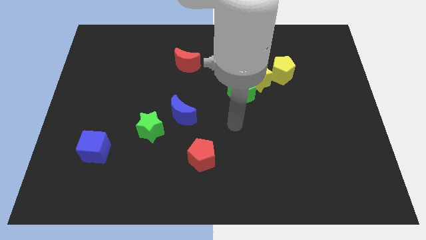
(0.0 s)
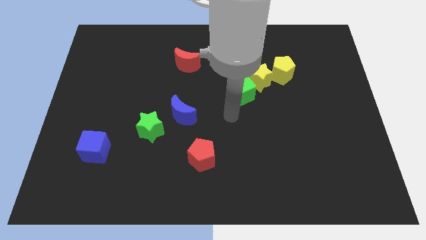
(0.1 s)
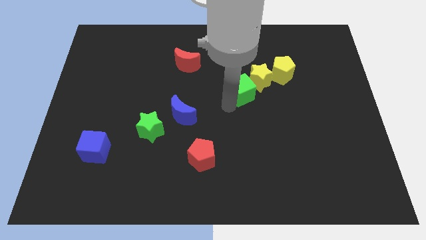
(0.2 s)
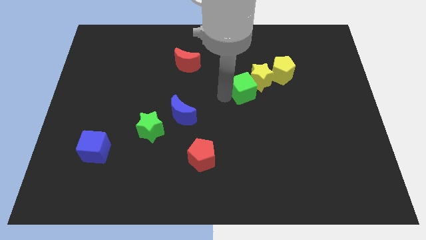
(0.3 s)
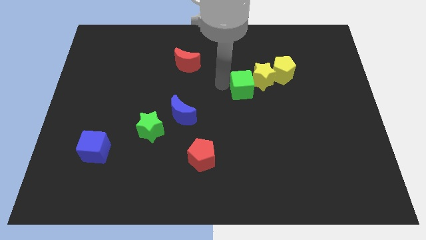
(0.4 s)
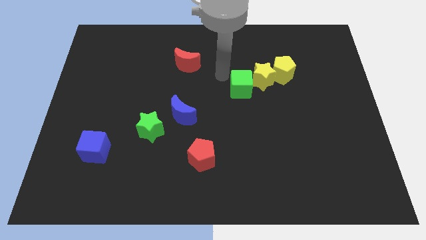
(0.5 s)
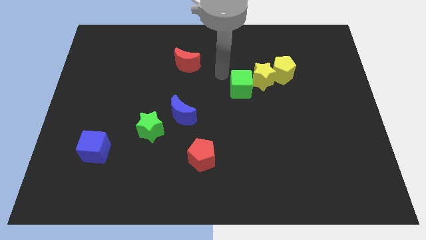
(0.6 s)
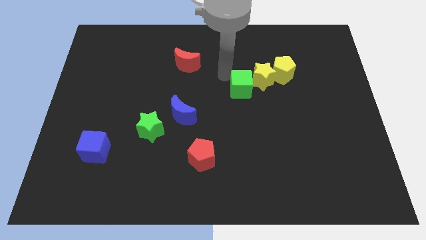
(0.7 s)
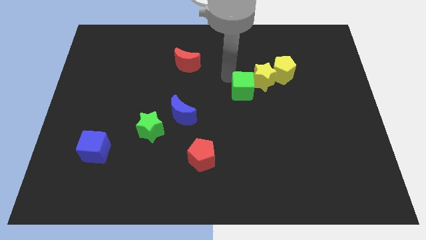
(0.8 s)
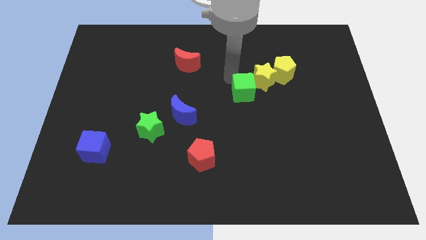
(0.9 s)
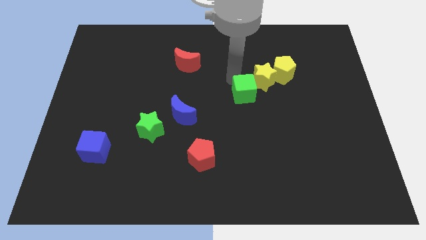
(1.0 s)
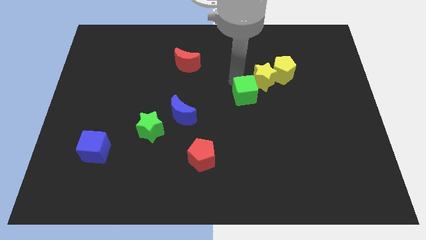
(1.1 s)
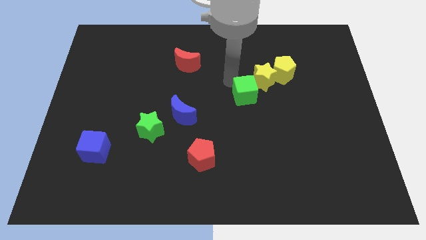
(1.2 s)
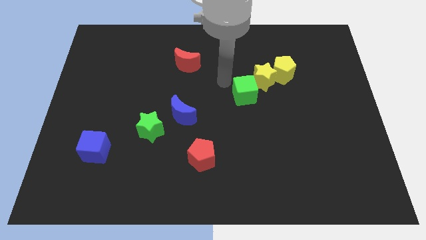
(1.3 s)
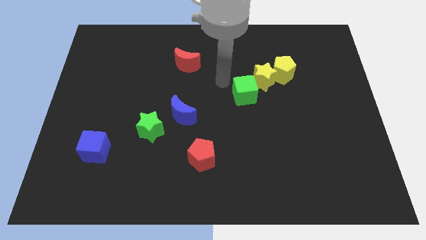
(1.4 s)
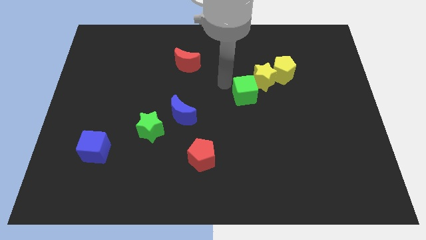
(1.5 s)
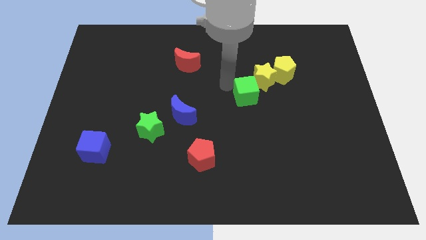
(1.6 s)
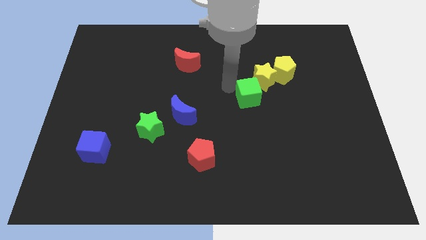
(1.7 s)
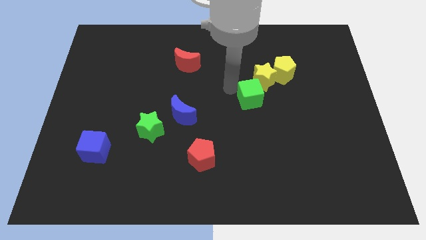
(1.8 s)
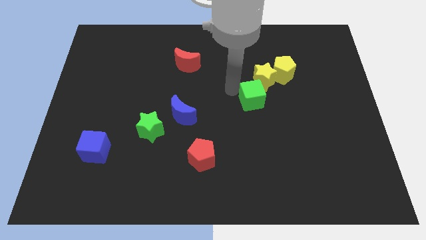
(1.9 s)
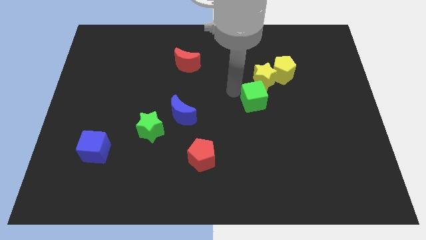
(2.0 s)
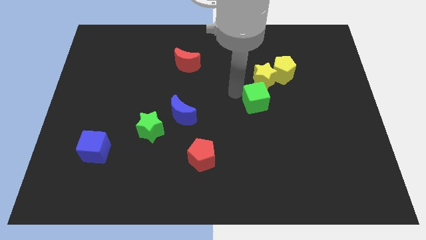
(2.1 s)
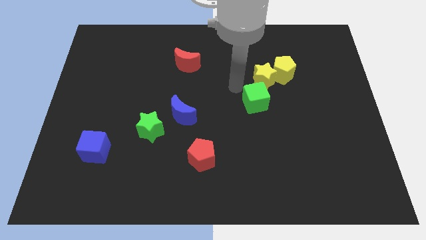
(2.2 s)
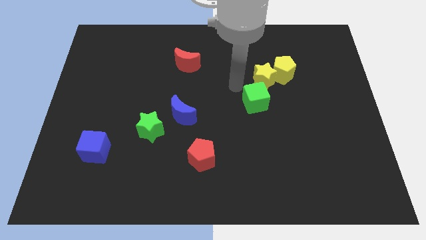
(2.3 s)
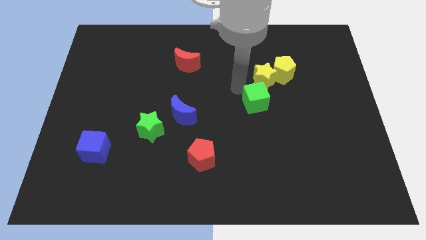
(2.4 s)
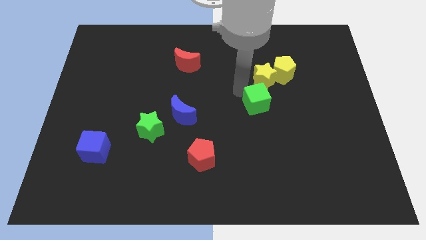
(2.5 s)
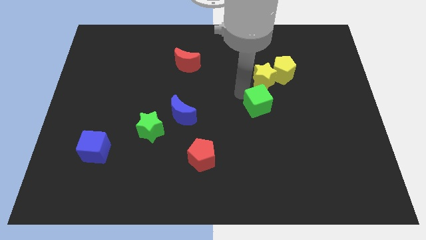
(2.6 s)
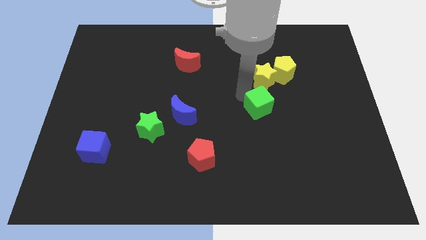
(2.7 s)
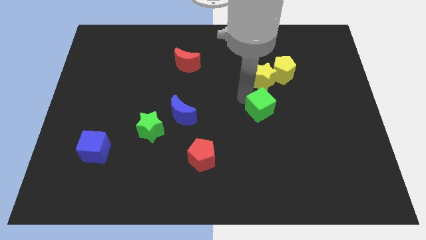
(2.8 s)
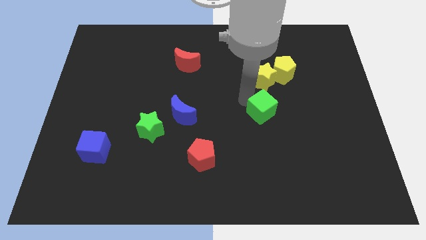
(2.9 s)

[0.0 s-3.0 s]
slide the green cube down and then right a little bit

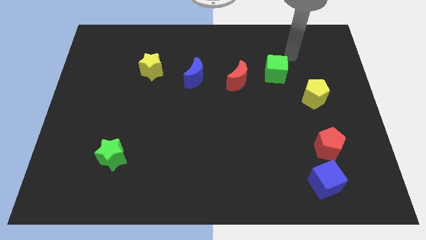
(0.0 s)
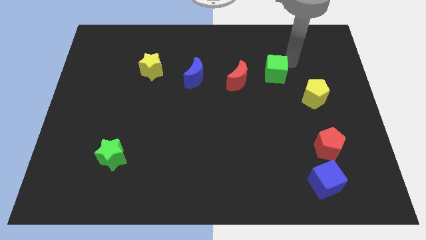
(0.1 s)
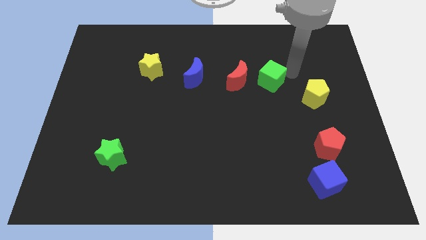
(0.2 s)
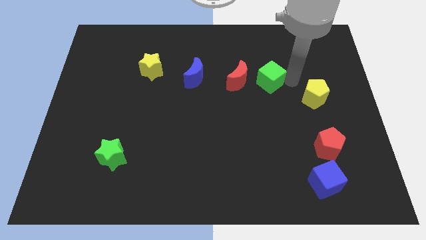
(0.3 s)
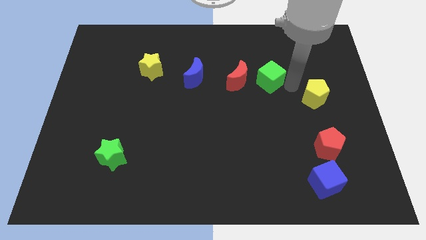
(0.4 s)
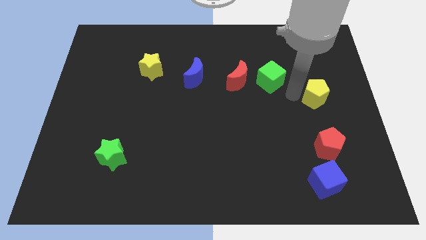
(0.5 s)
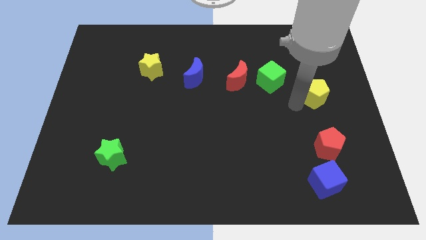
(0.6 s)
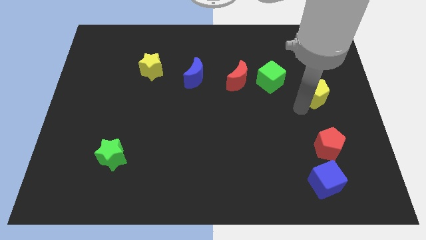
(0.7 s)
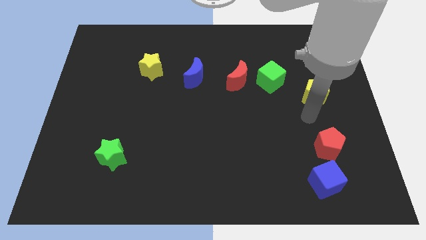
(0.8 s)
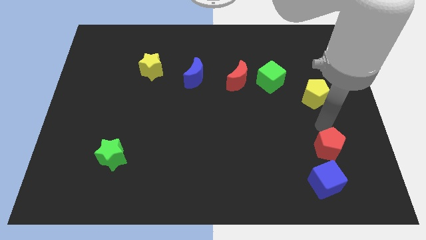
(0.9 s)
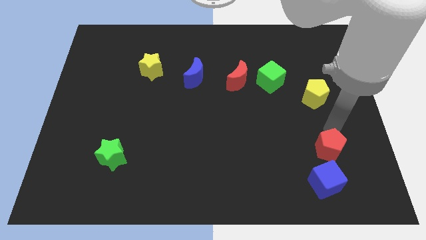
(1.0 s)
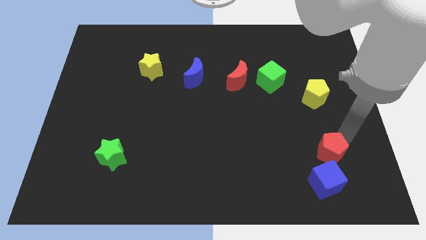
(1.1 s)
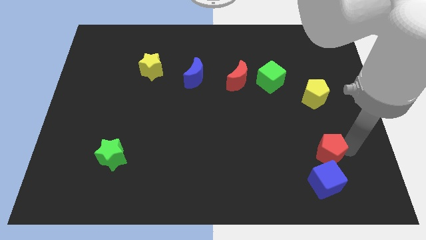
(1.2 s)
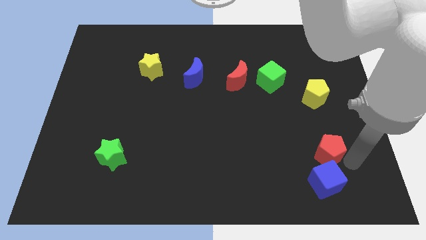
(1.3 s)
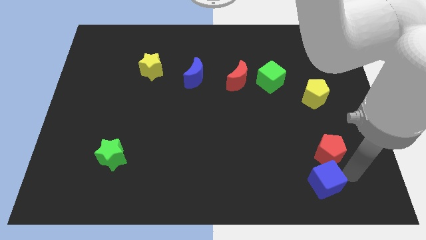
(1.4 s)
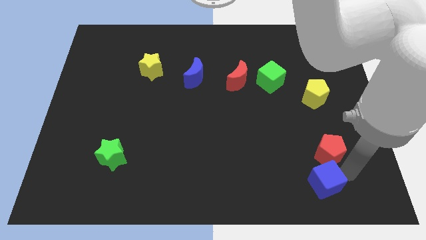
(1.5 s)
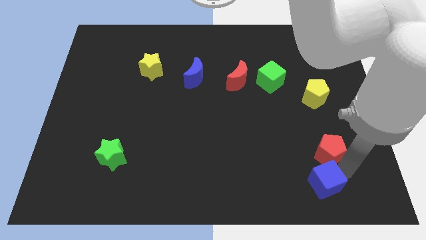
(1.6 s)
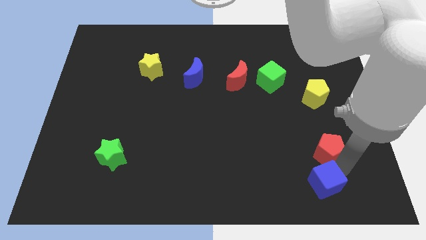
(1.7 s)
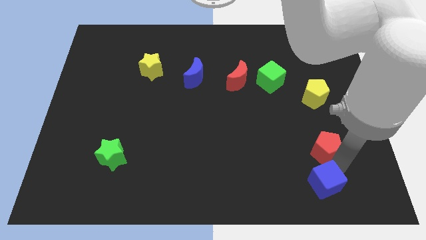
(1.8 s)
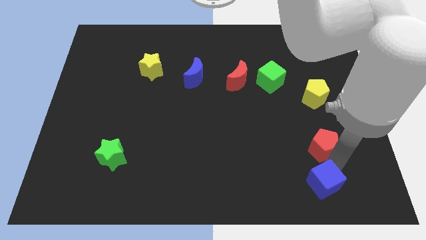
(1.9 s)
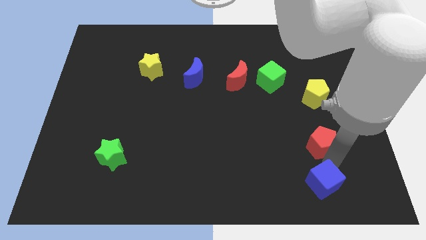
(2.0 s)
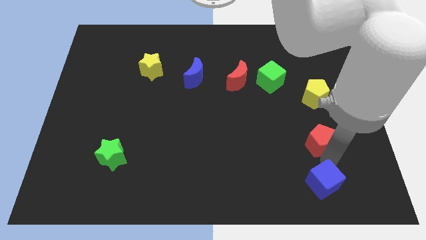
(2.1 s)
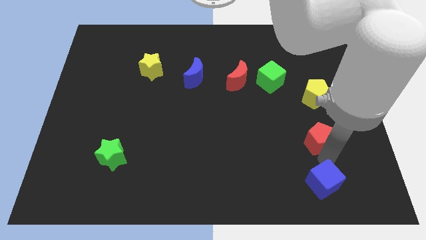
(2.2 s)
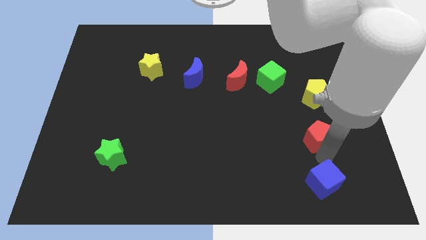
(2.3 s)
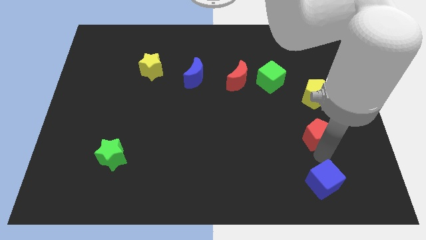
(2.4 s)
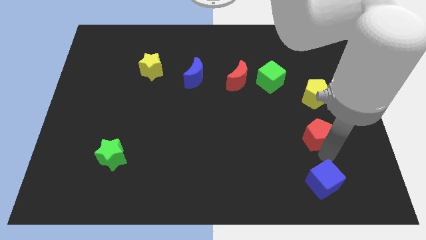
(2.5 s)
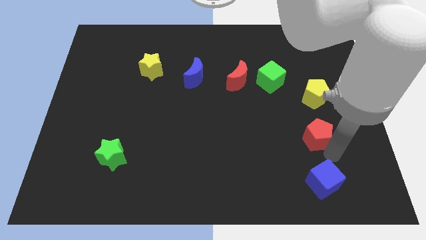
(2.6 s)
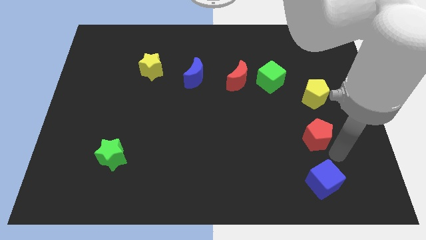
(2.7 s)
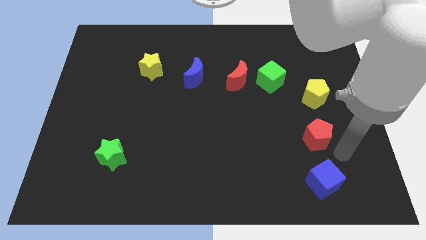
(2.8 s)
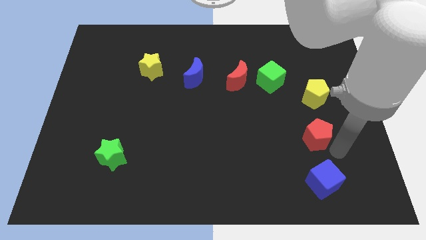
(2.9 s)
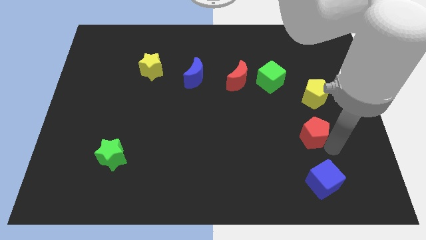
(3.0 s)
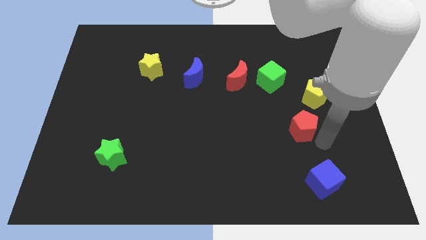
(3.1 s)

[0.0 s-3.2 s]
push the red pentagon up and left somewhat

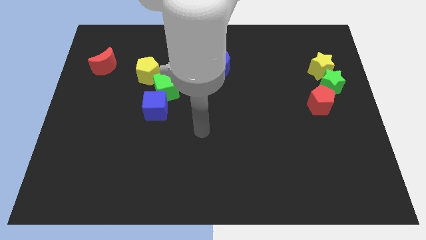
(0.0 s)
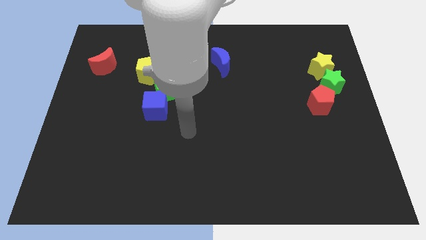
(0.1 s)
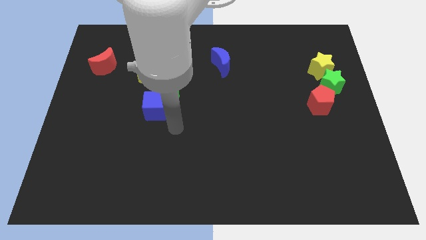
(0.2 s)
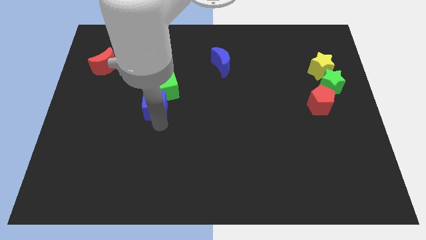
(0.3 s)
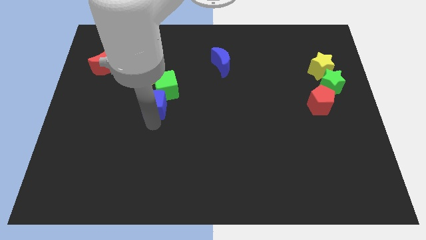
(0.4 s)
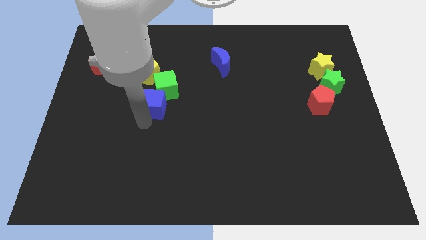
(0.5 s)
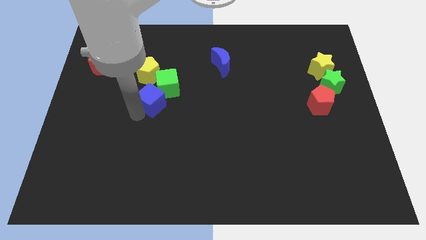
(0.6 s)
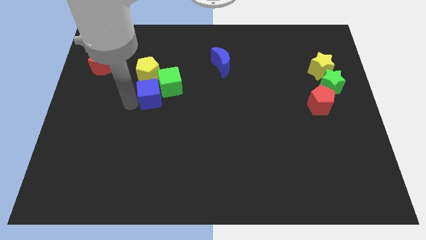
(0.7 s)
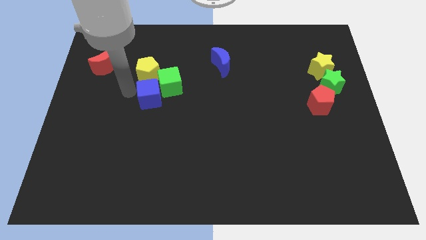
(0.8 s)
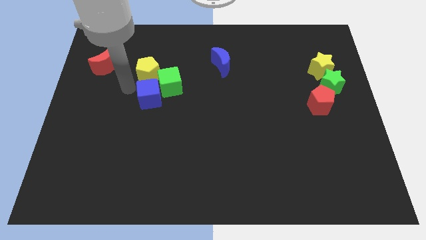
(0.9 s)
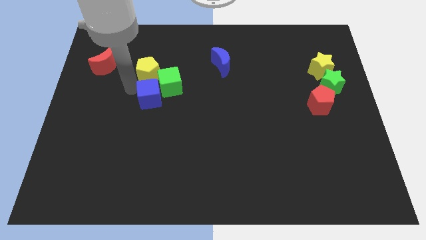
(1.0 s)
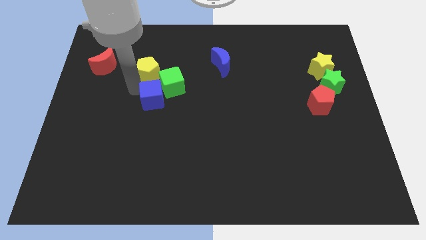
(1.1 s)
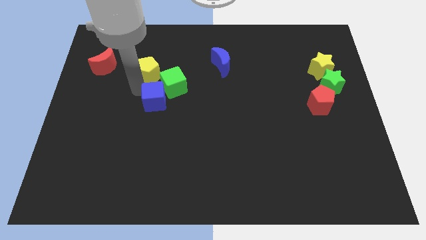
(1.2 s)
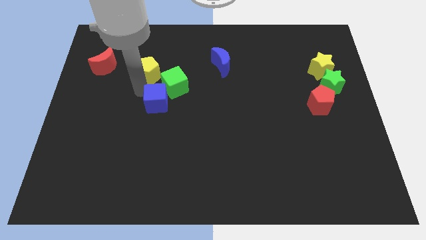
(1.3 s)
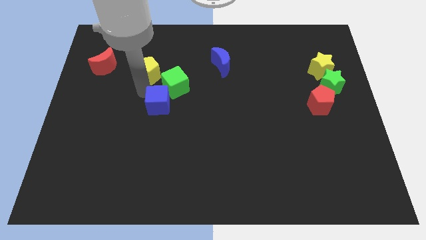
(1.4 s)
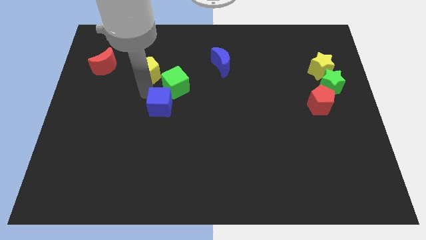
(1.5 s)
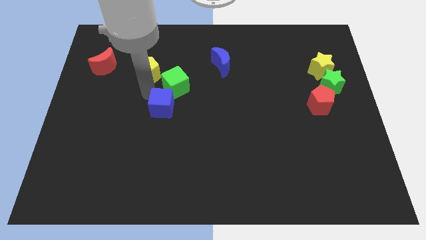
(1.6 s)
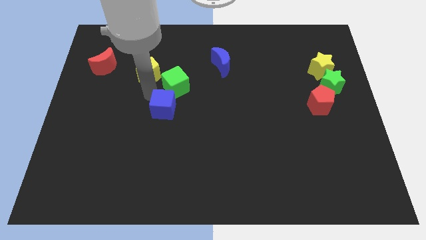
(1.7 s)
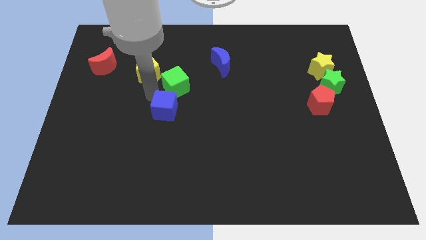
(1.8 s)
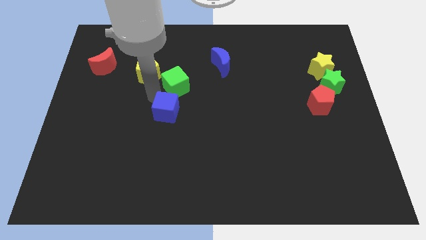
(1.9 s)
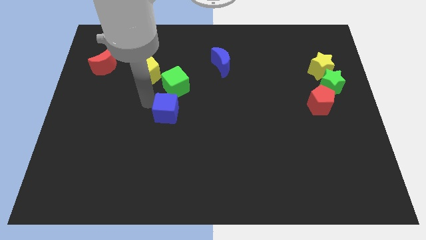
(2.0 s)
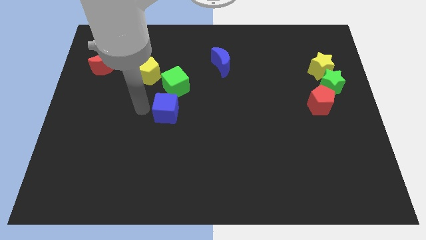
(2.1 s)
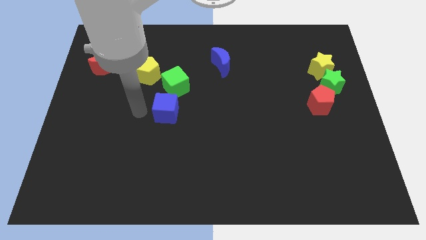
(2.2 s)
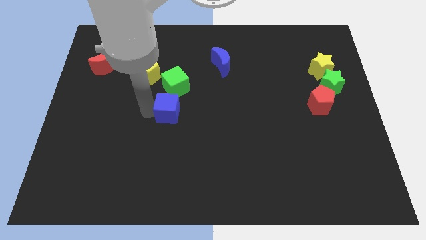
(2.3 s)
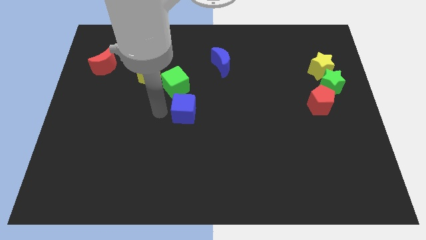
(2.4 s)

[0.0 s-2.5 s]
slide the blue cube right a little bit
